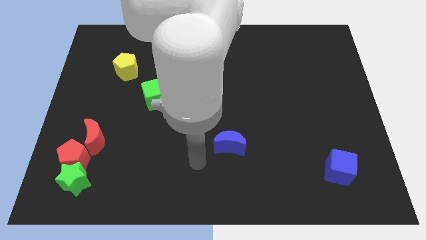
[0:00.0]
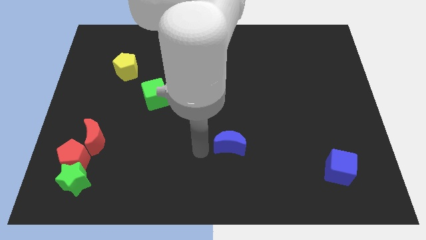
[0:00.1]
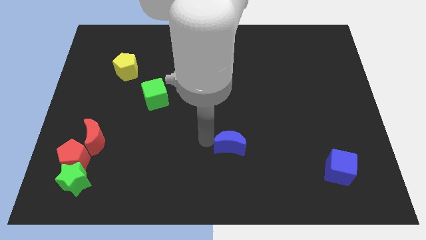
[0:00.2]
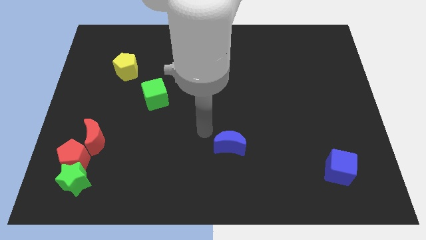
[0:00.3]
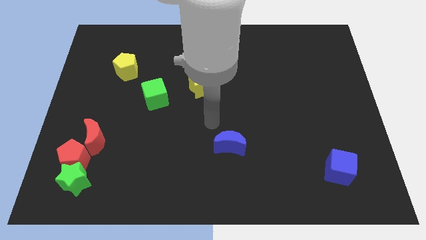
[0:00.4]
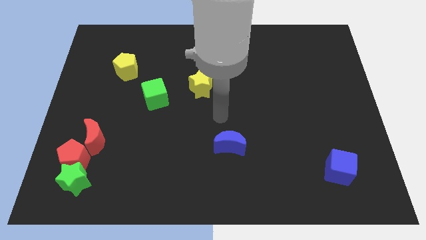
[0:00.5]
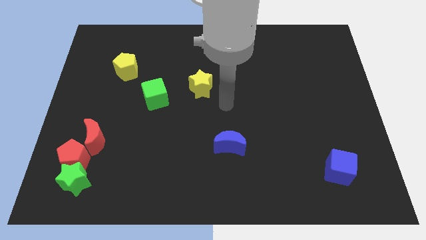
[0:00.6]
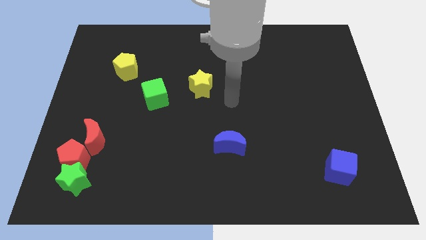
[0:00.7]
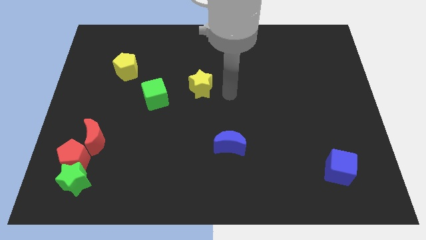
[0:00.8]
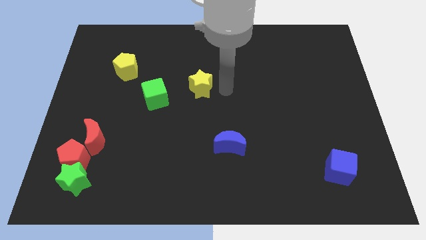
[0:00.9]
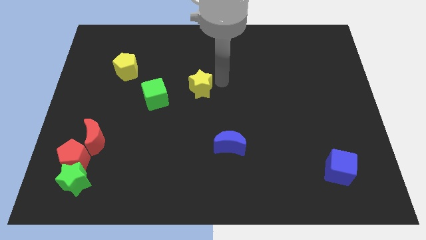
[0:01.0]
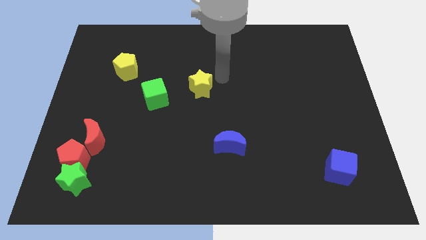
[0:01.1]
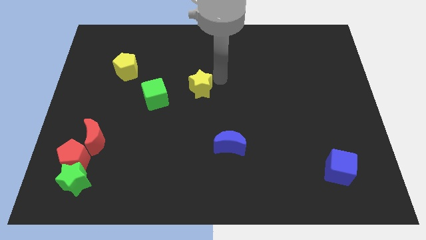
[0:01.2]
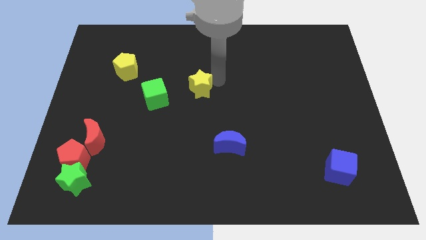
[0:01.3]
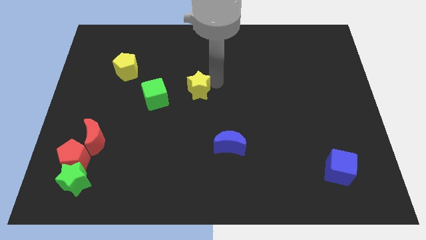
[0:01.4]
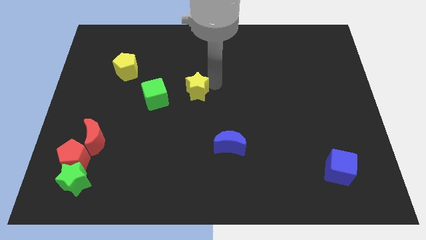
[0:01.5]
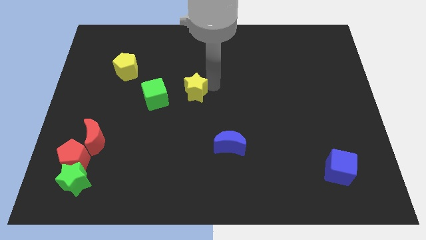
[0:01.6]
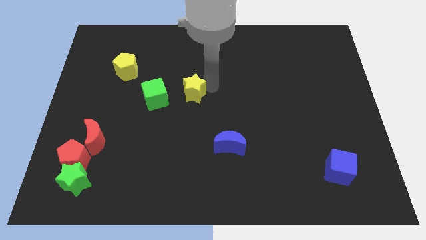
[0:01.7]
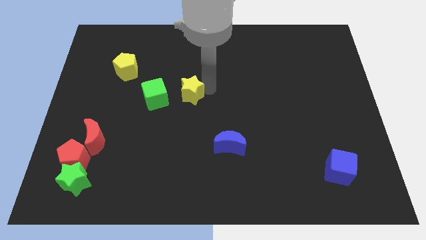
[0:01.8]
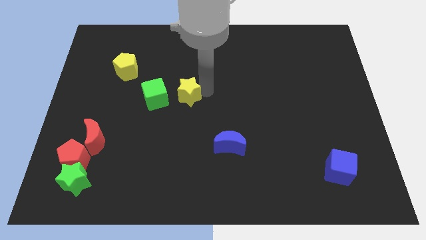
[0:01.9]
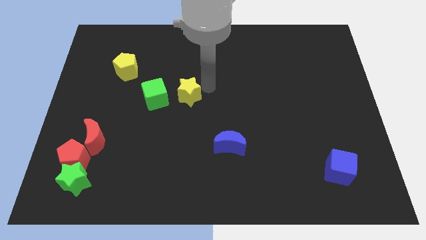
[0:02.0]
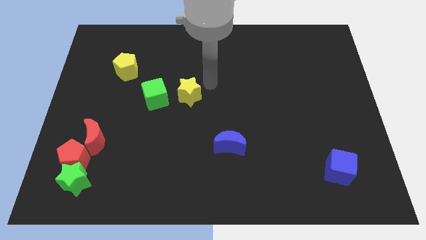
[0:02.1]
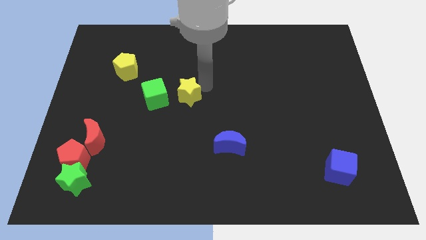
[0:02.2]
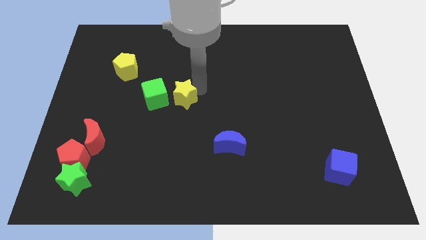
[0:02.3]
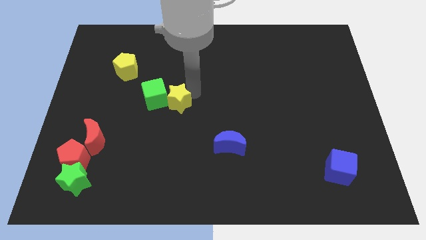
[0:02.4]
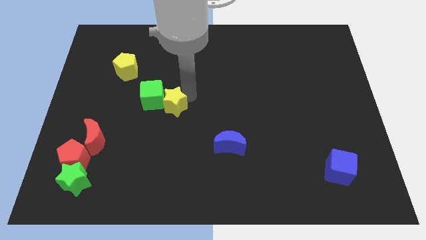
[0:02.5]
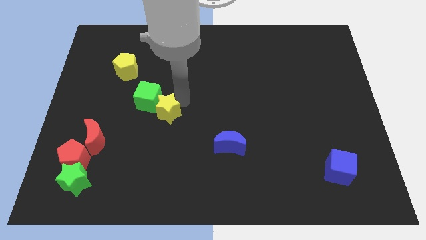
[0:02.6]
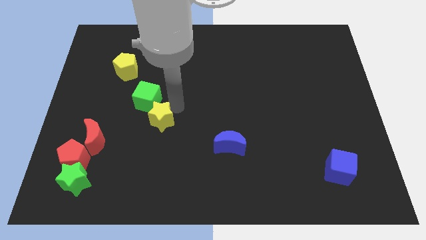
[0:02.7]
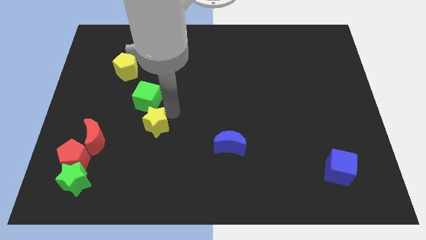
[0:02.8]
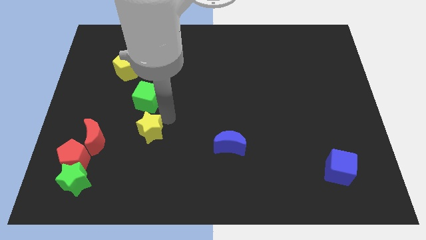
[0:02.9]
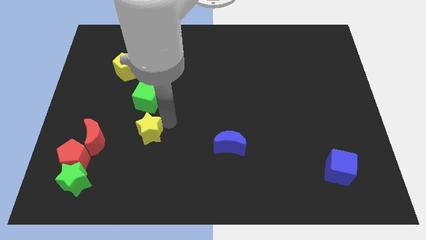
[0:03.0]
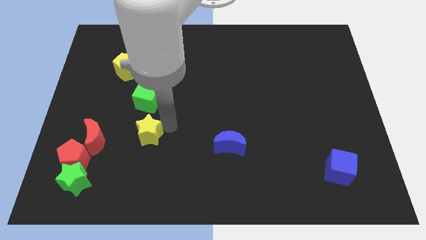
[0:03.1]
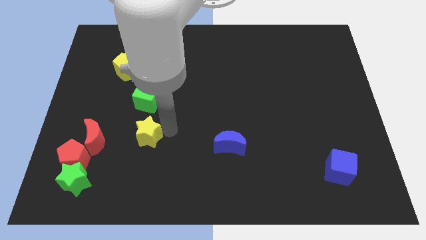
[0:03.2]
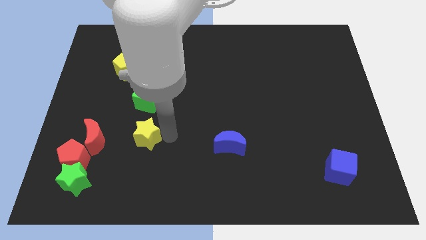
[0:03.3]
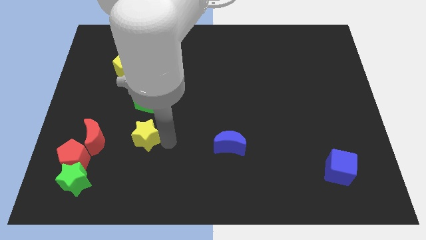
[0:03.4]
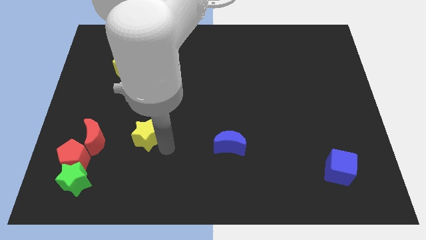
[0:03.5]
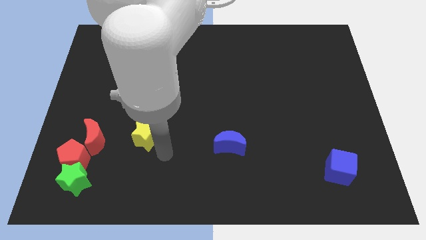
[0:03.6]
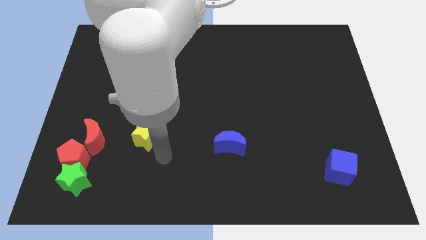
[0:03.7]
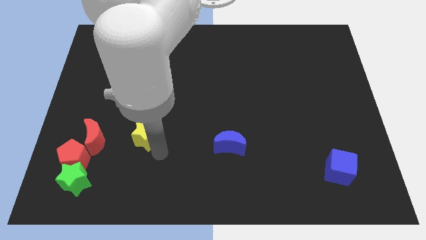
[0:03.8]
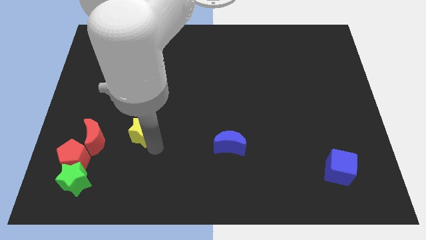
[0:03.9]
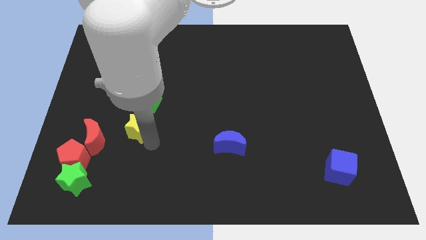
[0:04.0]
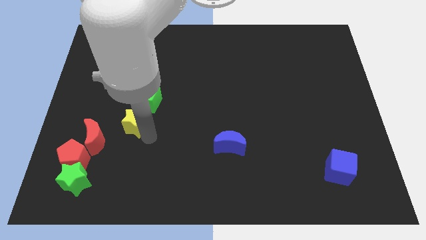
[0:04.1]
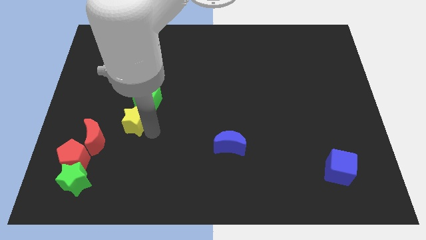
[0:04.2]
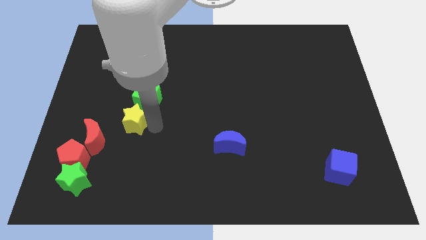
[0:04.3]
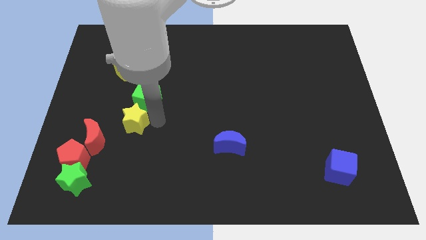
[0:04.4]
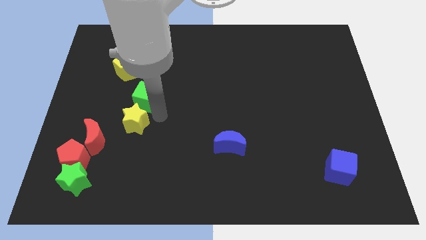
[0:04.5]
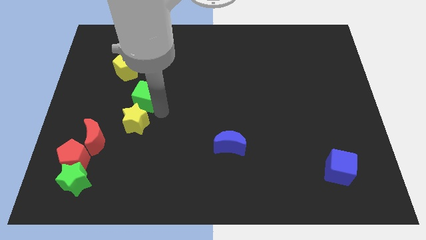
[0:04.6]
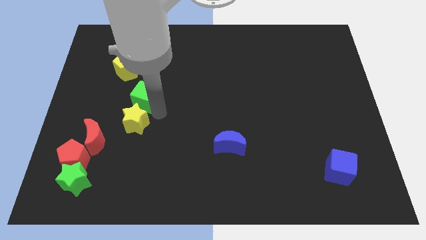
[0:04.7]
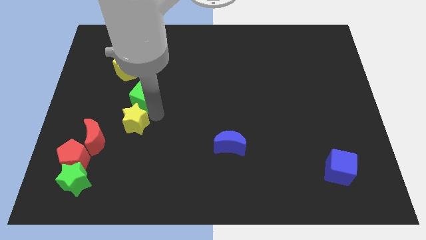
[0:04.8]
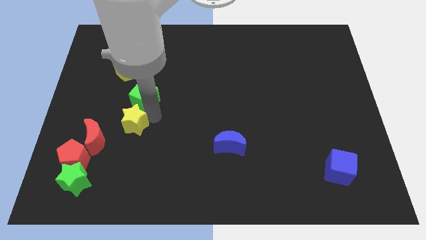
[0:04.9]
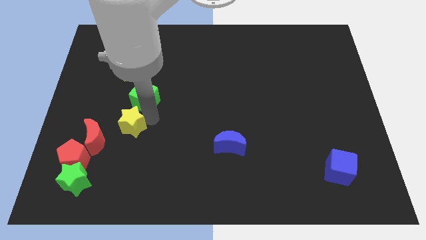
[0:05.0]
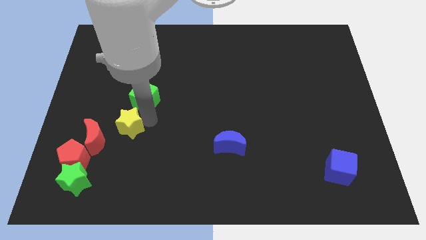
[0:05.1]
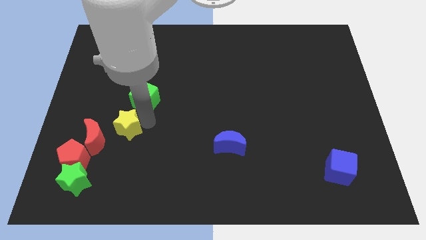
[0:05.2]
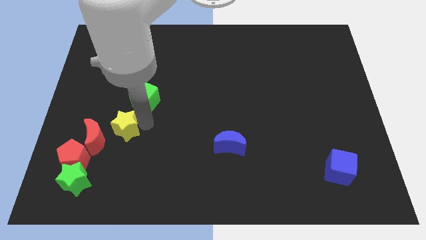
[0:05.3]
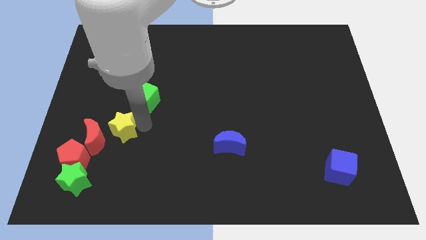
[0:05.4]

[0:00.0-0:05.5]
move the yellow star close to the red moon

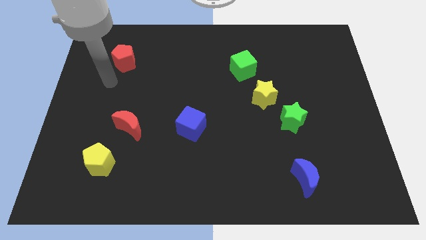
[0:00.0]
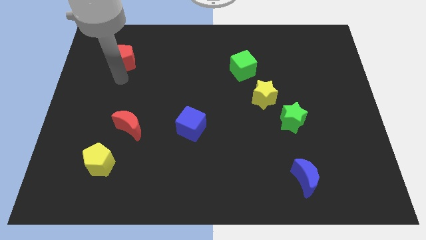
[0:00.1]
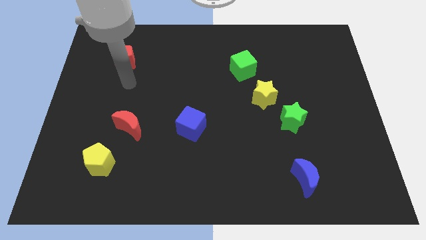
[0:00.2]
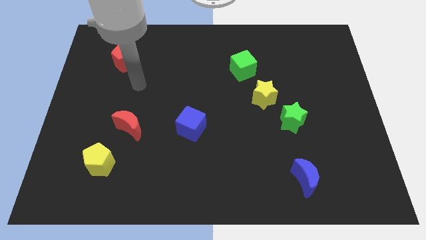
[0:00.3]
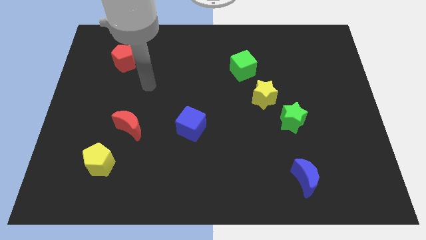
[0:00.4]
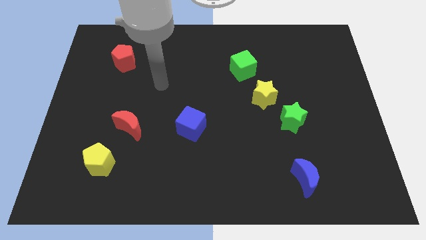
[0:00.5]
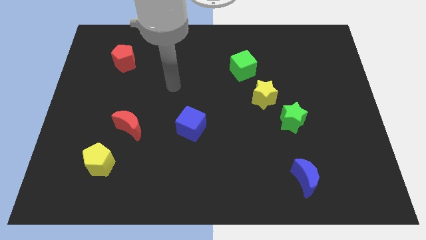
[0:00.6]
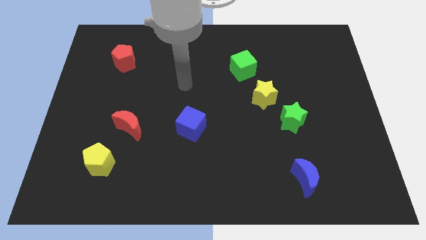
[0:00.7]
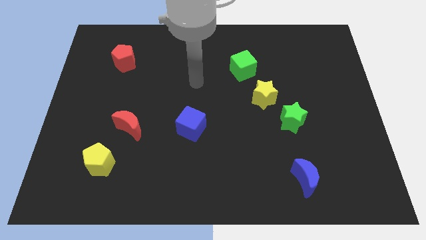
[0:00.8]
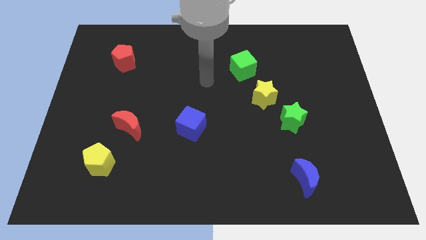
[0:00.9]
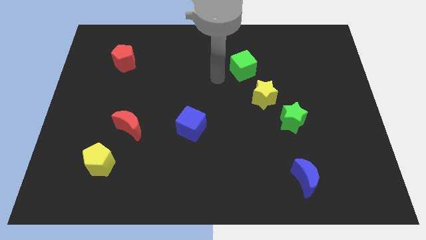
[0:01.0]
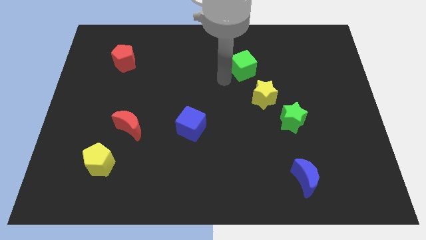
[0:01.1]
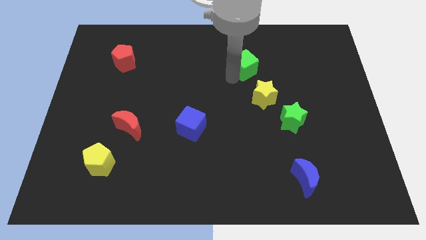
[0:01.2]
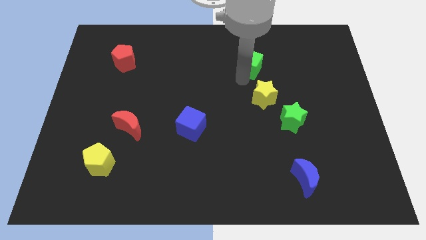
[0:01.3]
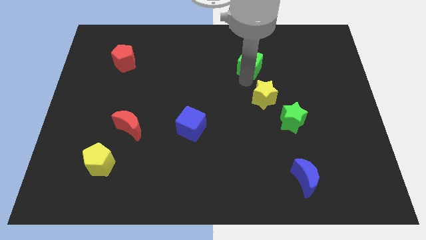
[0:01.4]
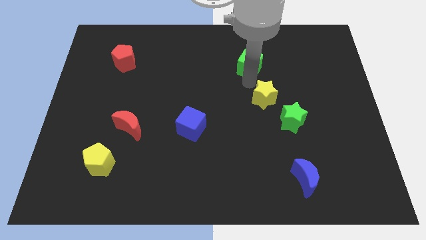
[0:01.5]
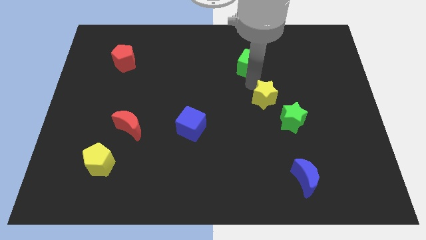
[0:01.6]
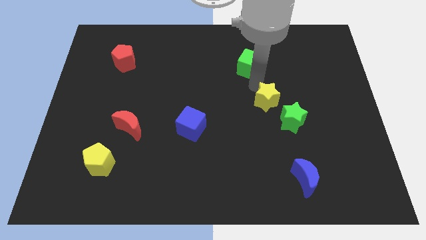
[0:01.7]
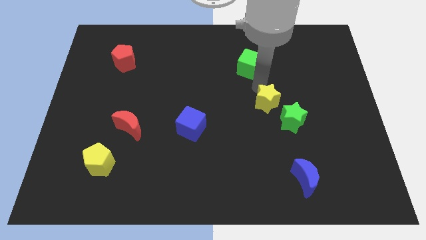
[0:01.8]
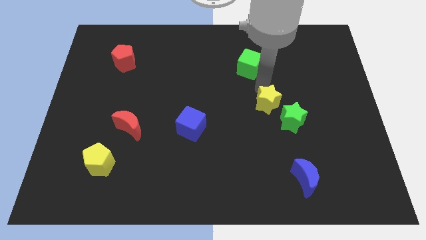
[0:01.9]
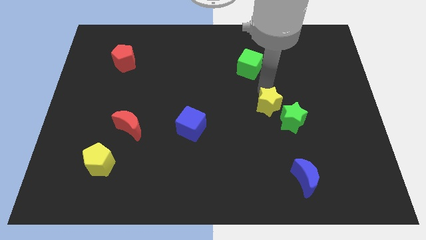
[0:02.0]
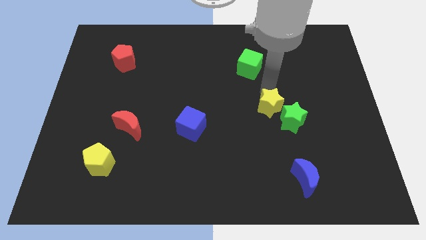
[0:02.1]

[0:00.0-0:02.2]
put the yellow star to the green star

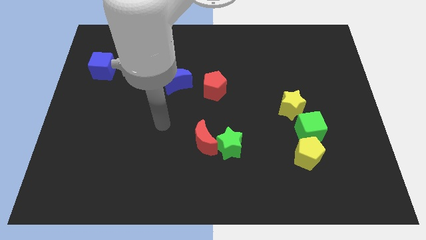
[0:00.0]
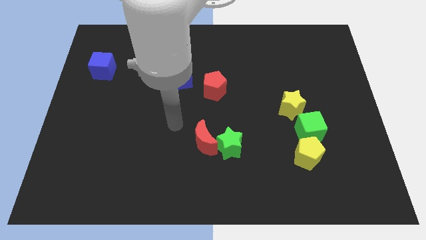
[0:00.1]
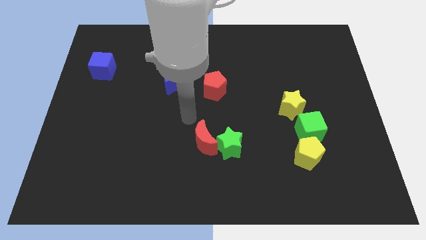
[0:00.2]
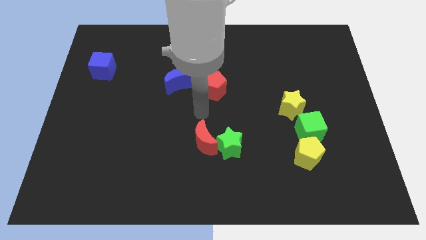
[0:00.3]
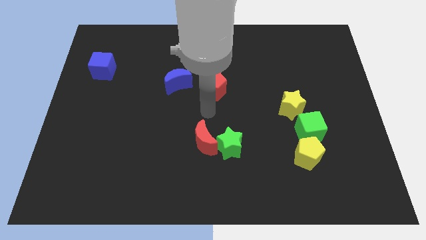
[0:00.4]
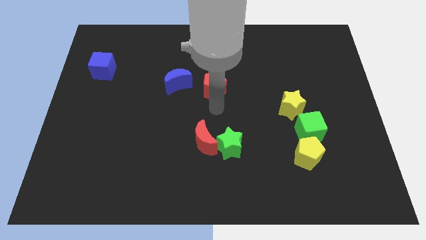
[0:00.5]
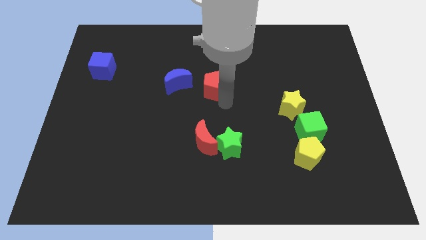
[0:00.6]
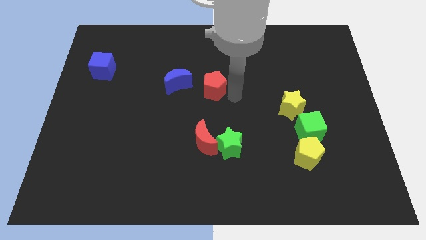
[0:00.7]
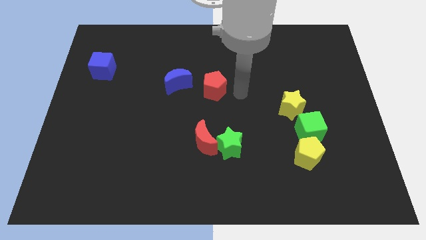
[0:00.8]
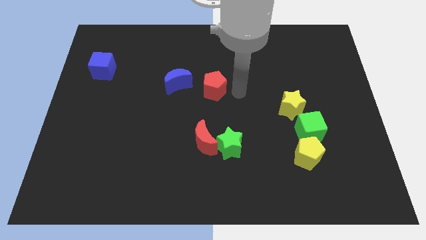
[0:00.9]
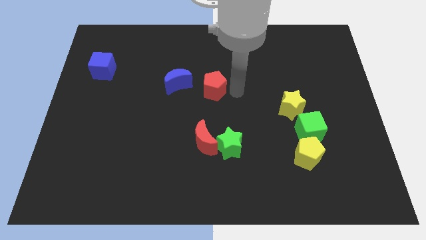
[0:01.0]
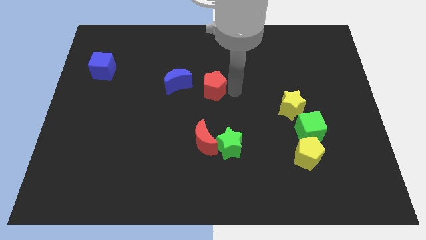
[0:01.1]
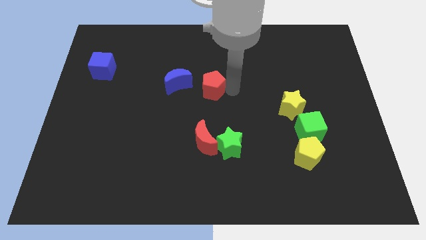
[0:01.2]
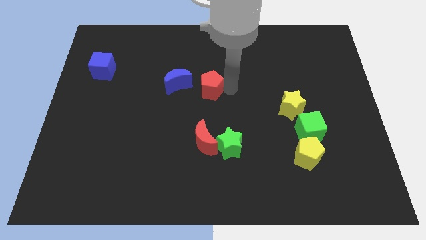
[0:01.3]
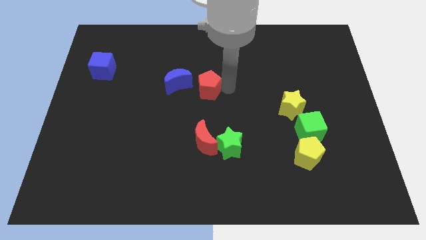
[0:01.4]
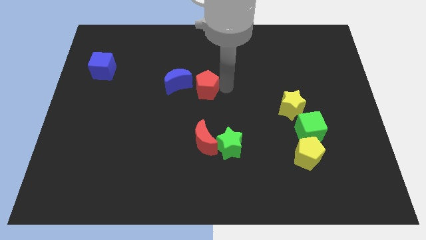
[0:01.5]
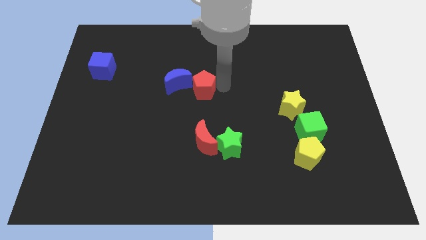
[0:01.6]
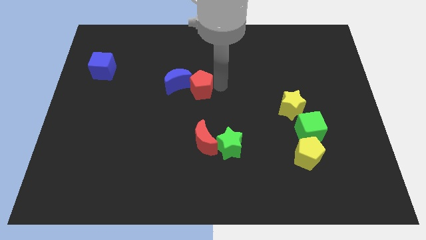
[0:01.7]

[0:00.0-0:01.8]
push the red pentagon to the blue moon
